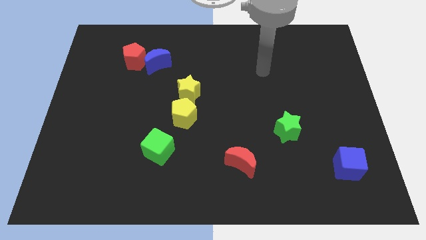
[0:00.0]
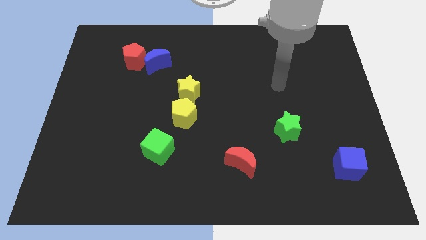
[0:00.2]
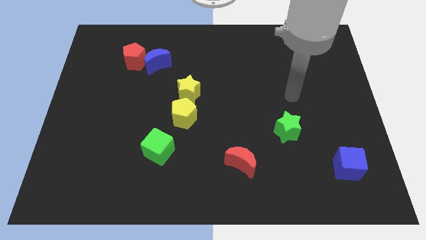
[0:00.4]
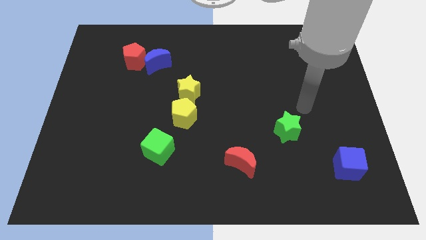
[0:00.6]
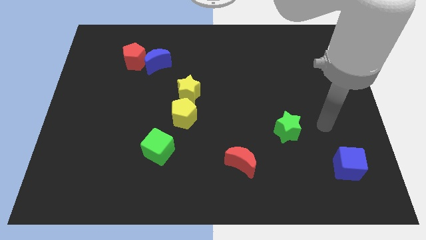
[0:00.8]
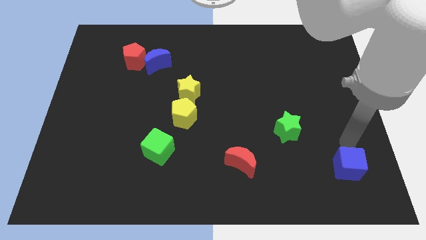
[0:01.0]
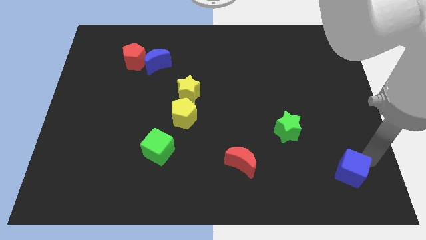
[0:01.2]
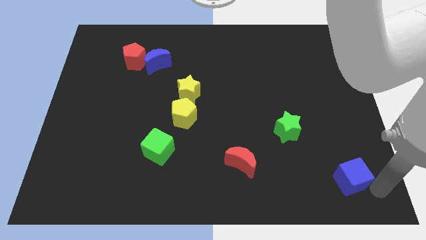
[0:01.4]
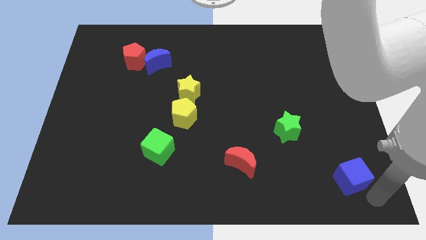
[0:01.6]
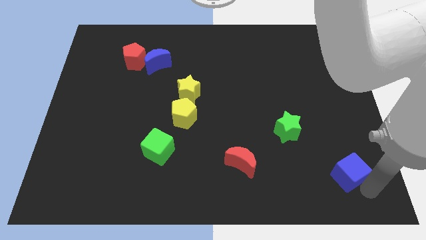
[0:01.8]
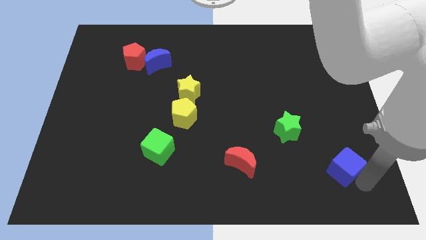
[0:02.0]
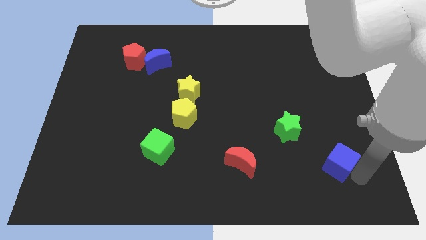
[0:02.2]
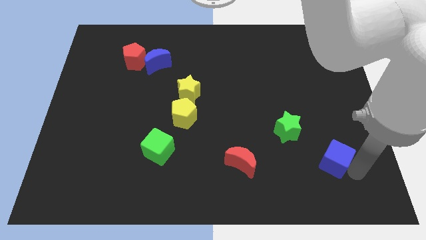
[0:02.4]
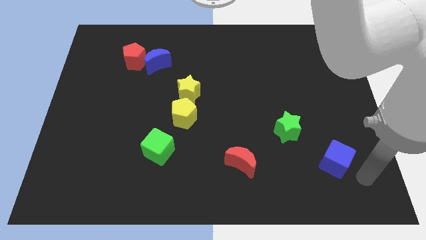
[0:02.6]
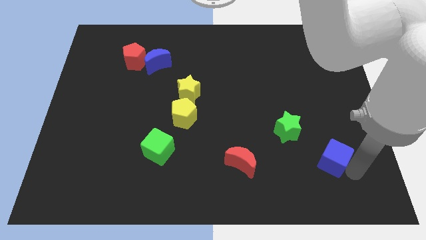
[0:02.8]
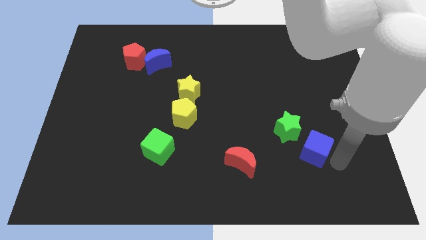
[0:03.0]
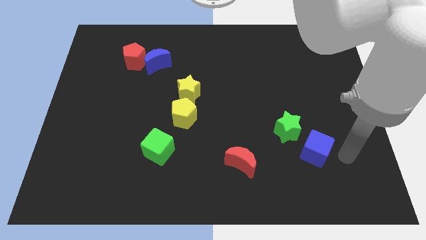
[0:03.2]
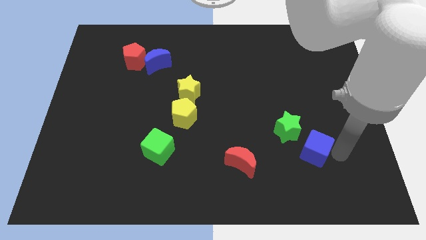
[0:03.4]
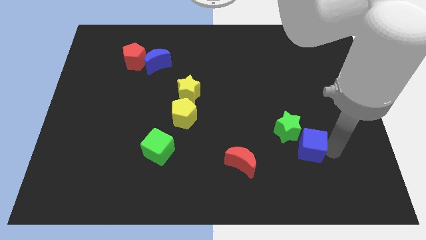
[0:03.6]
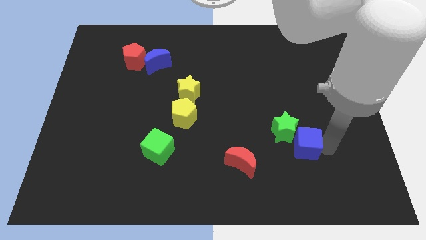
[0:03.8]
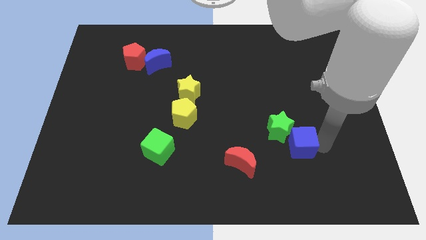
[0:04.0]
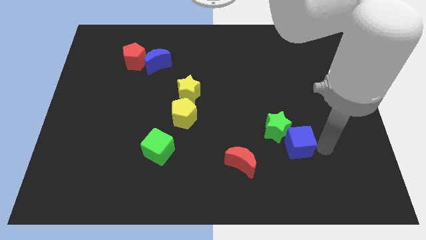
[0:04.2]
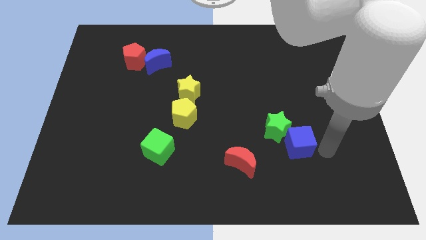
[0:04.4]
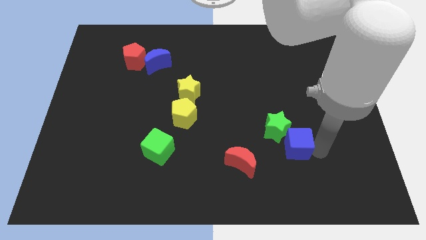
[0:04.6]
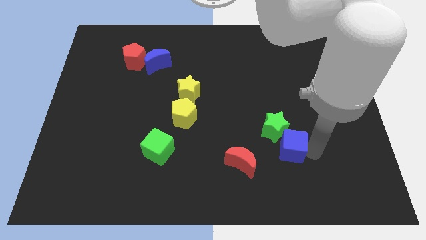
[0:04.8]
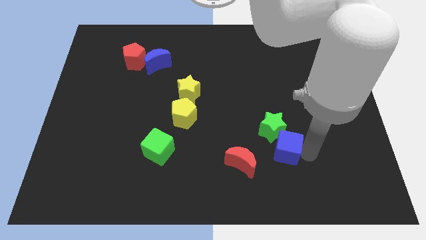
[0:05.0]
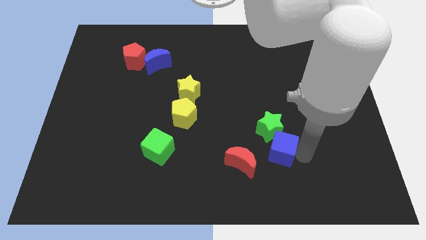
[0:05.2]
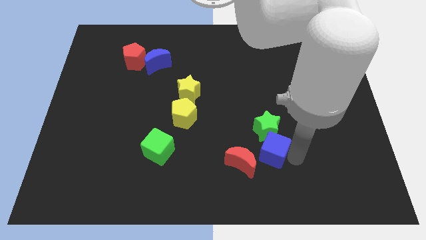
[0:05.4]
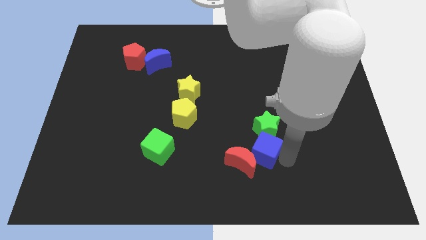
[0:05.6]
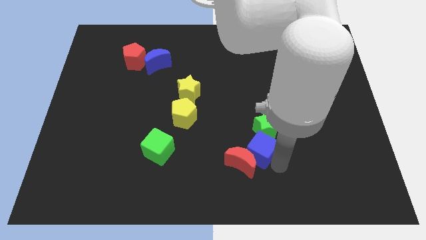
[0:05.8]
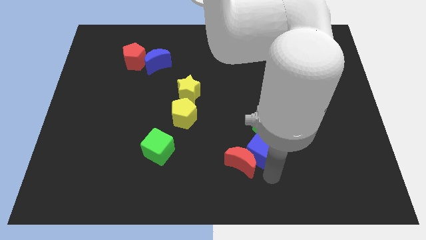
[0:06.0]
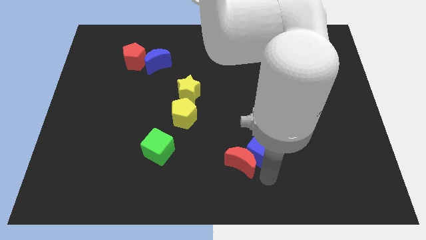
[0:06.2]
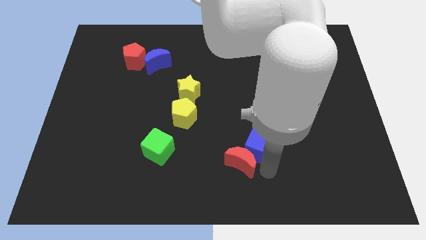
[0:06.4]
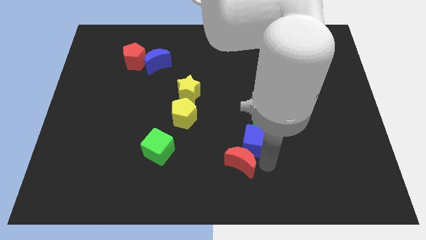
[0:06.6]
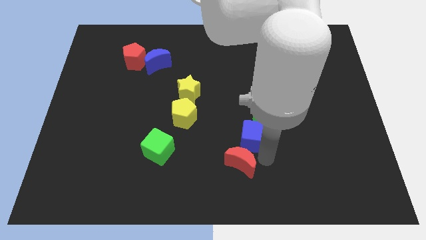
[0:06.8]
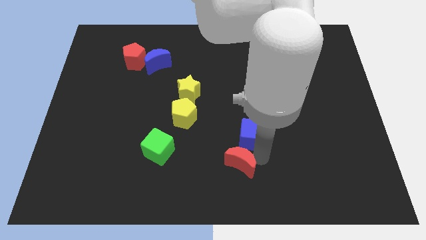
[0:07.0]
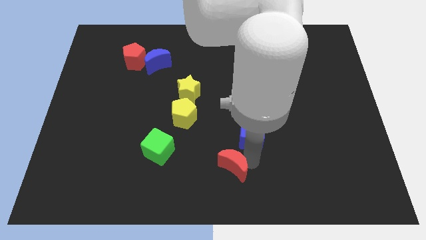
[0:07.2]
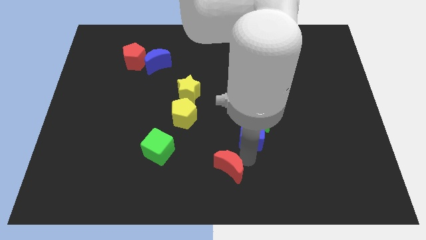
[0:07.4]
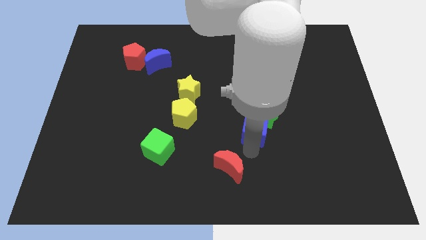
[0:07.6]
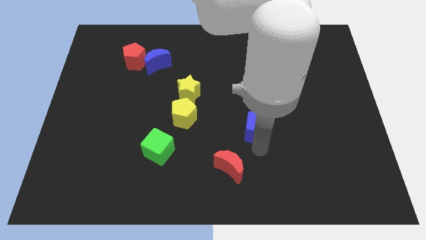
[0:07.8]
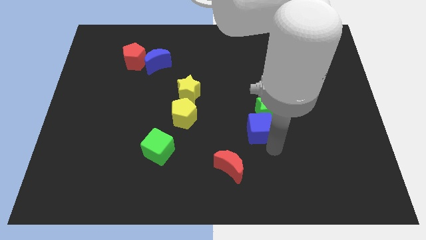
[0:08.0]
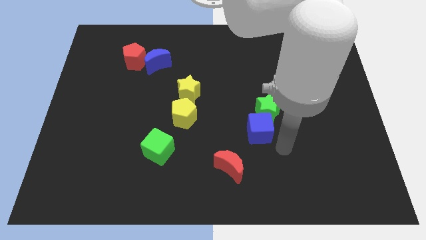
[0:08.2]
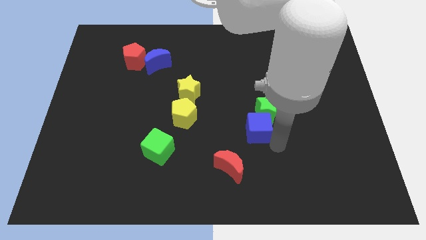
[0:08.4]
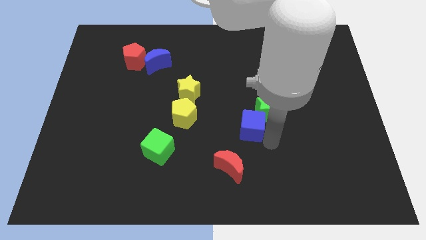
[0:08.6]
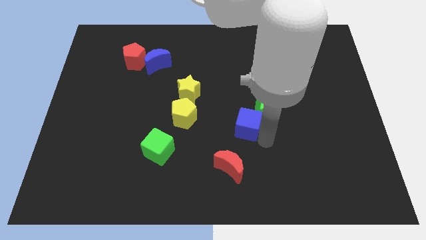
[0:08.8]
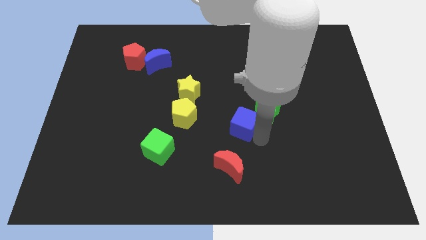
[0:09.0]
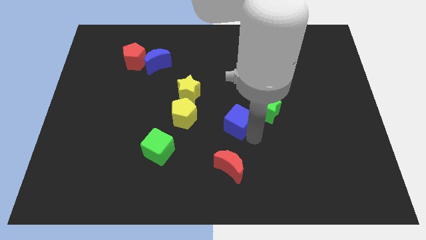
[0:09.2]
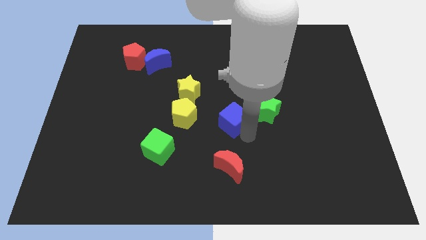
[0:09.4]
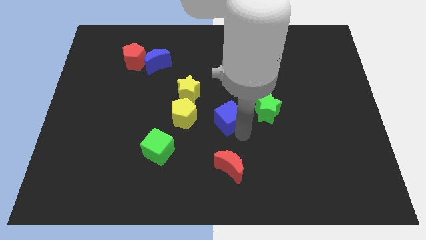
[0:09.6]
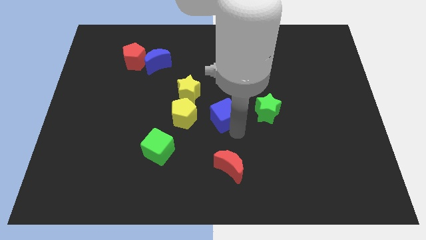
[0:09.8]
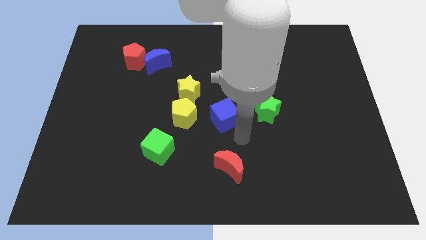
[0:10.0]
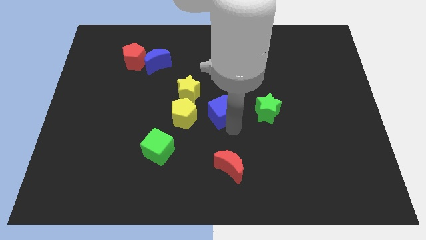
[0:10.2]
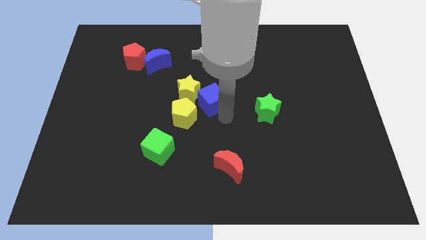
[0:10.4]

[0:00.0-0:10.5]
move the blue cube close to the yellow star
